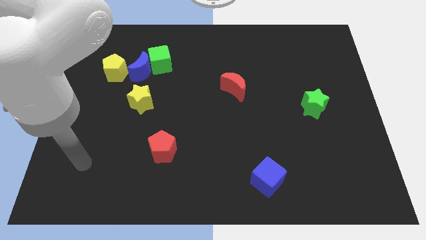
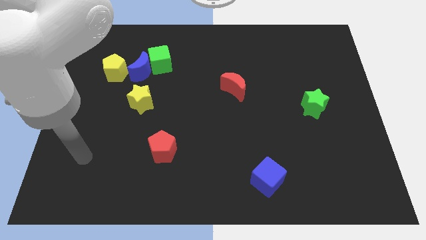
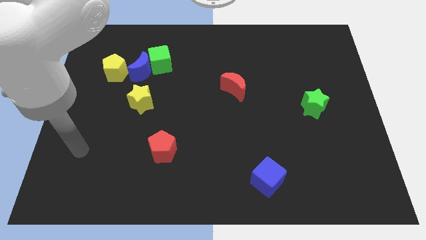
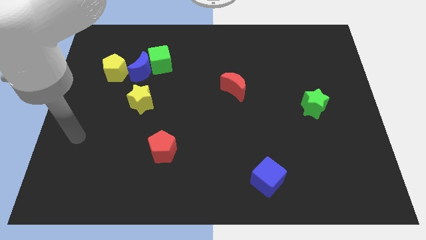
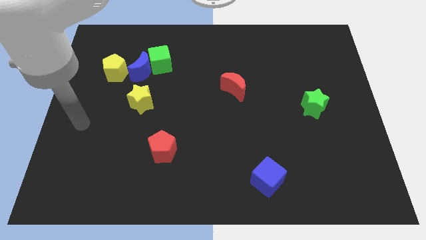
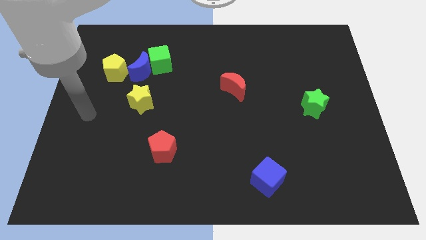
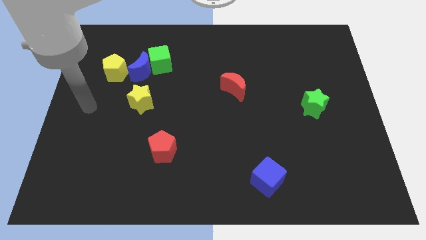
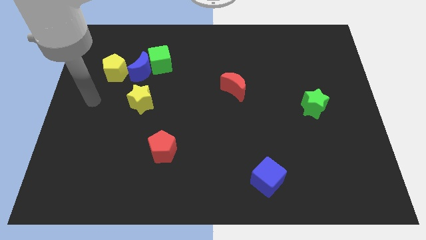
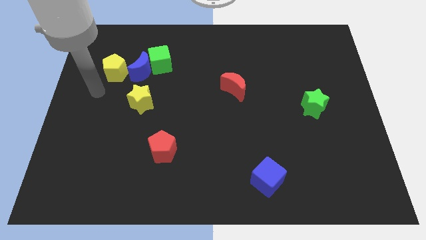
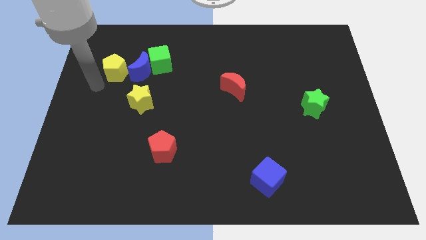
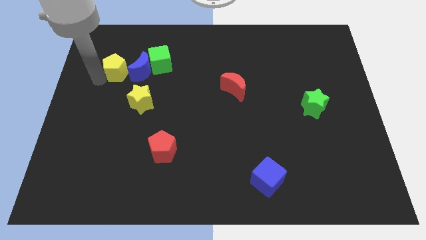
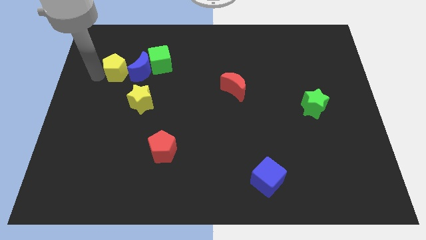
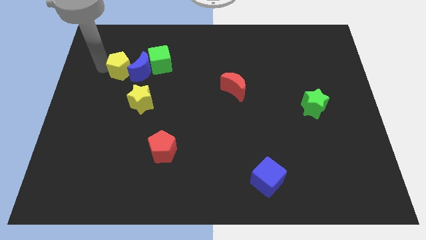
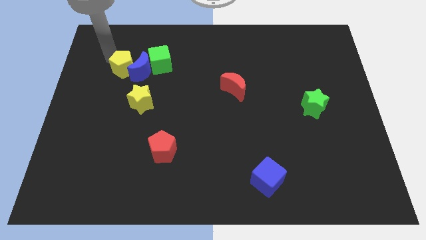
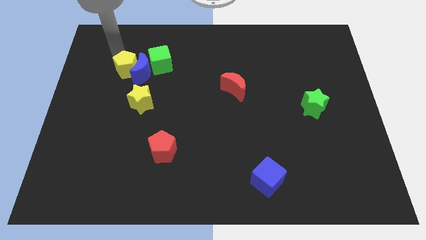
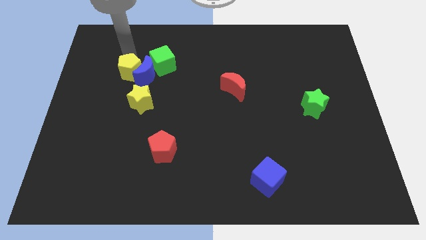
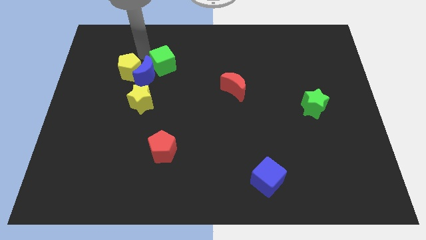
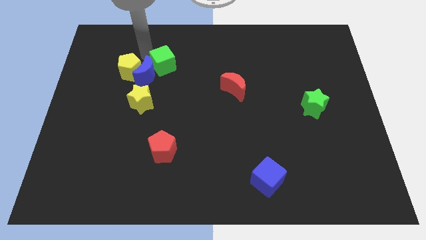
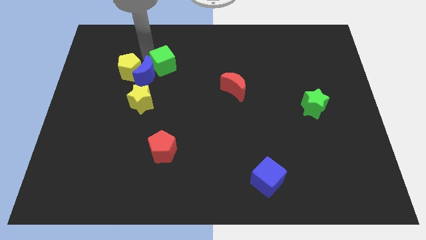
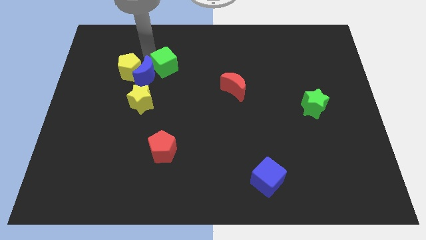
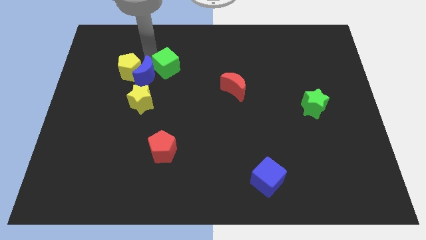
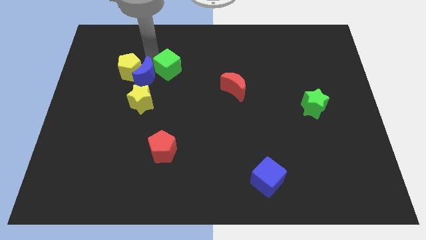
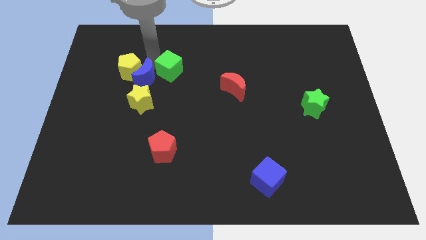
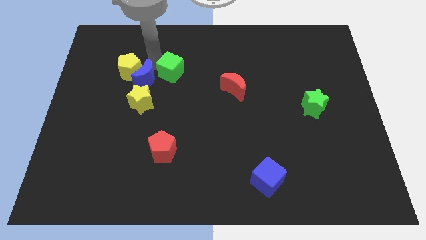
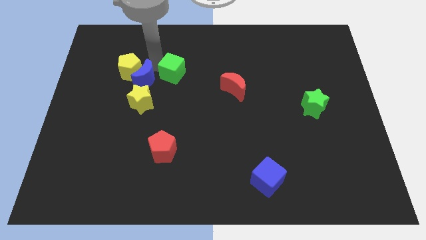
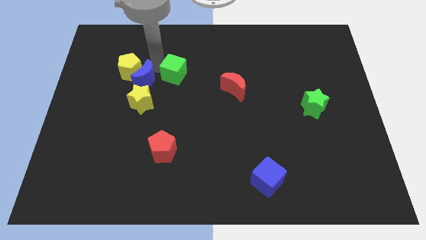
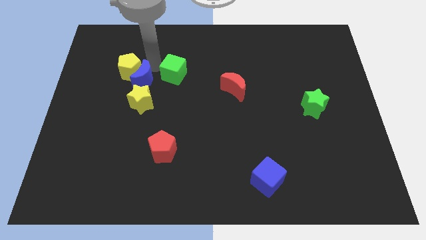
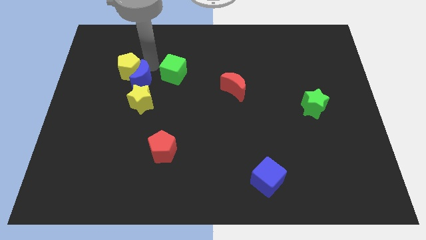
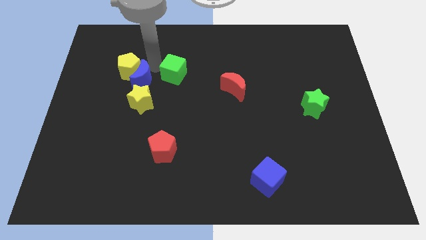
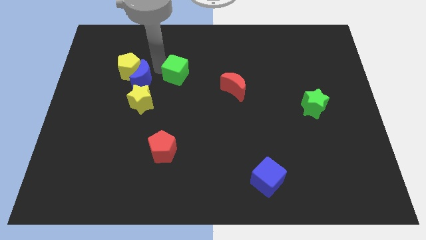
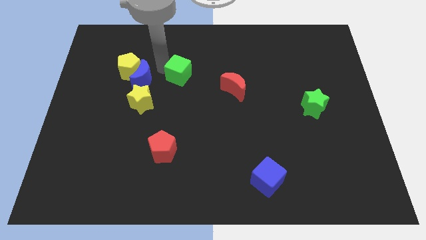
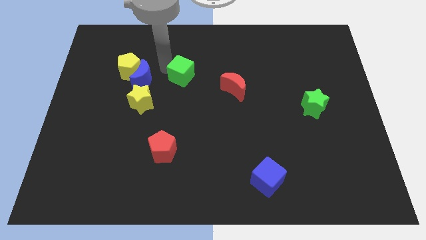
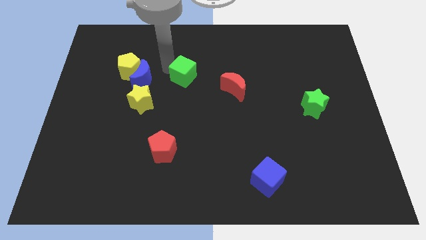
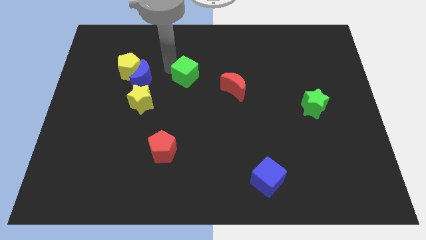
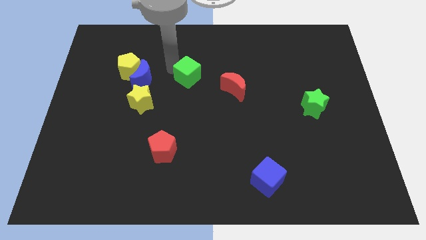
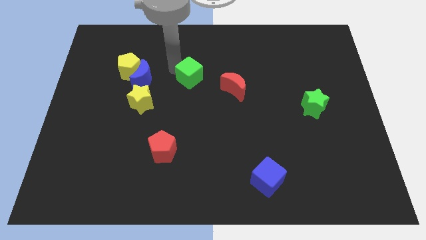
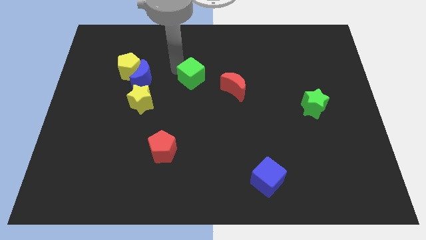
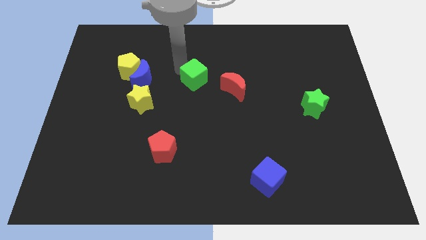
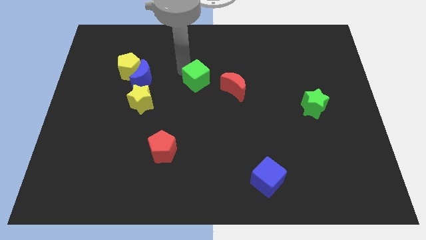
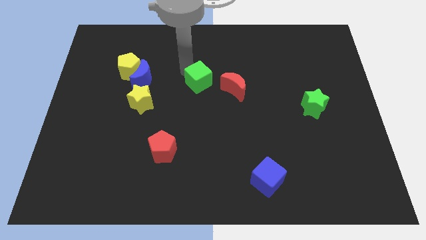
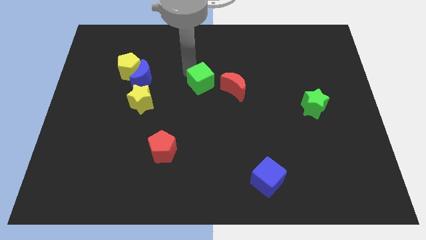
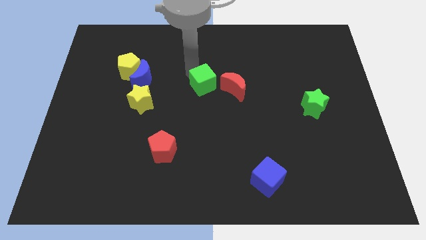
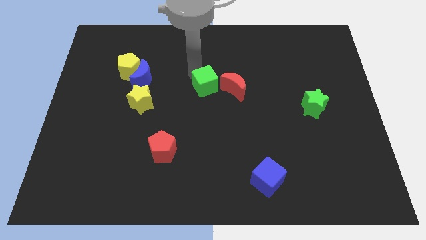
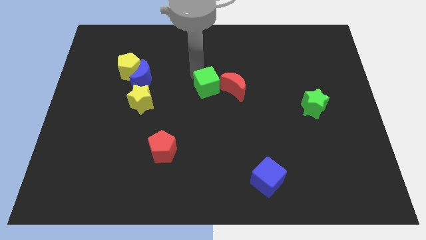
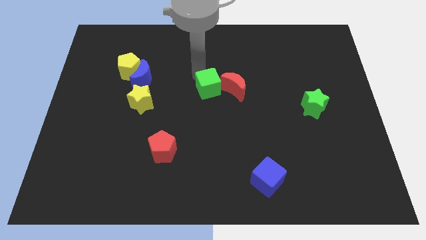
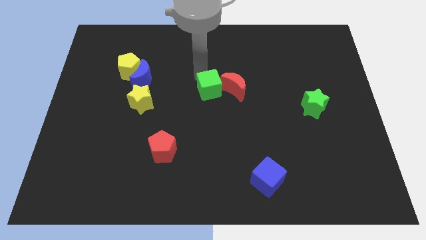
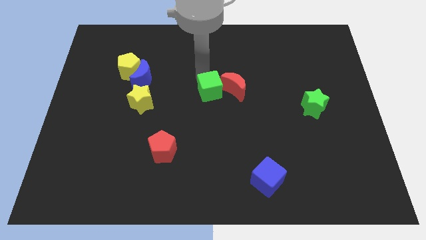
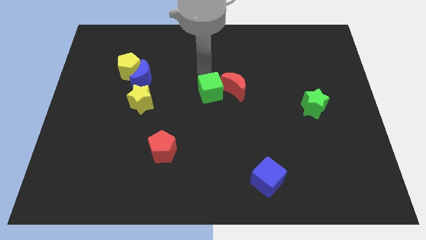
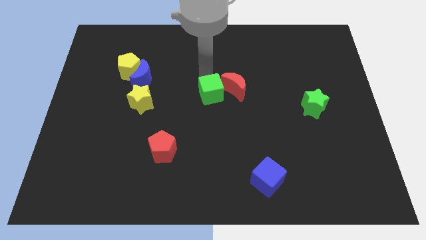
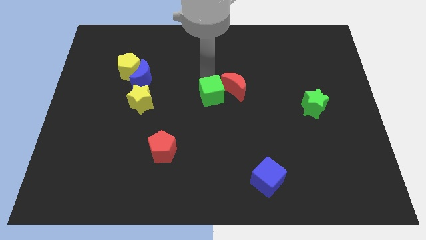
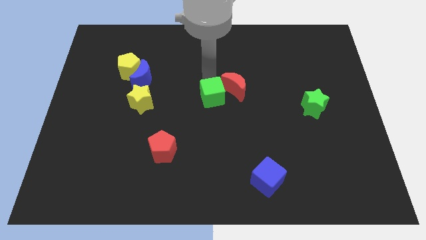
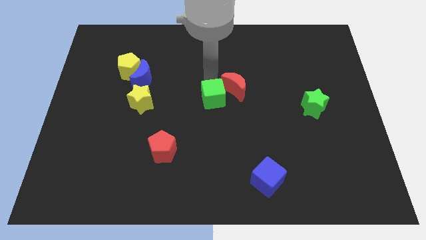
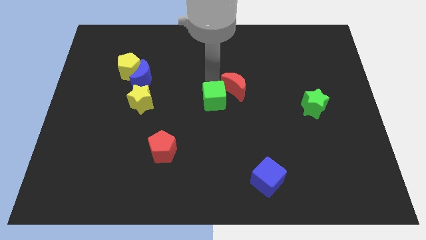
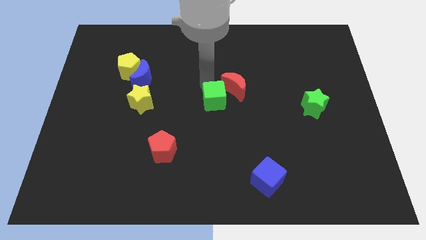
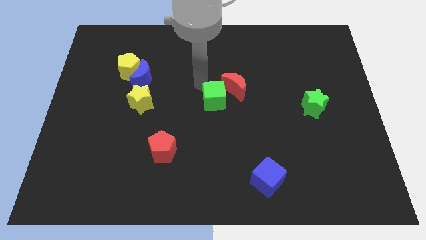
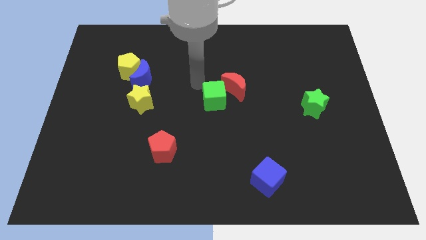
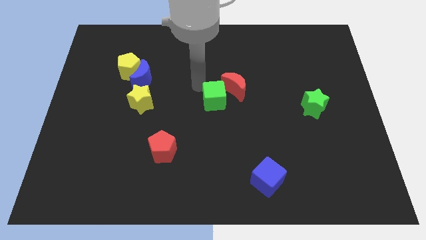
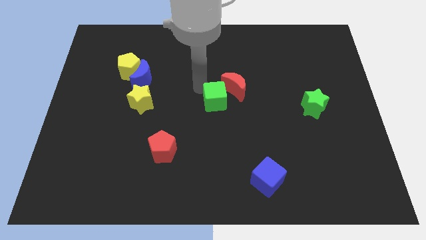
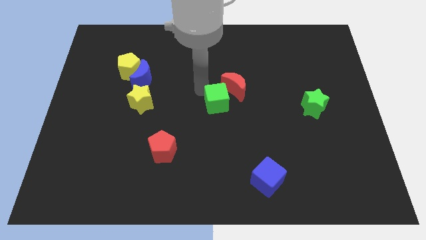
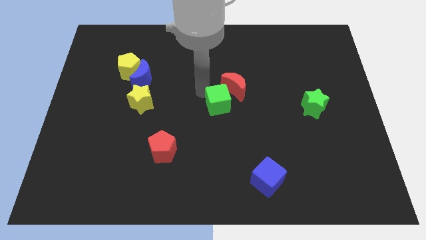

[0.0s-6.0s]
push the green cube downwards and then to the right

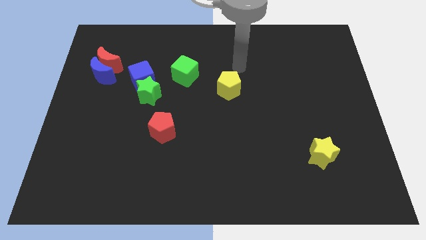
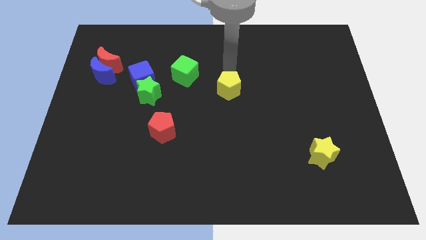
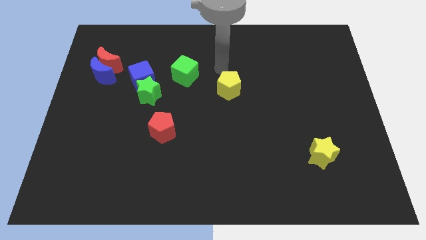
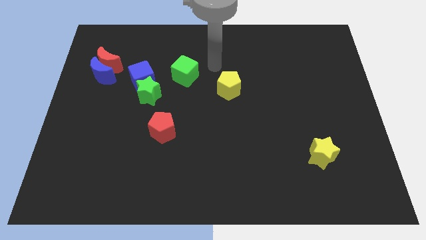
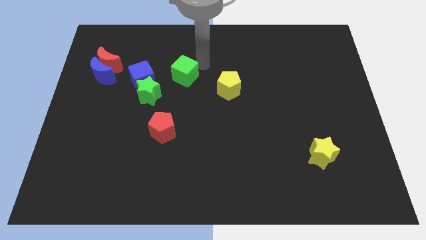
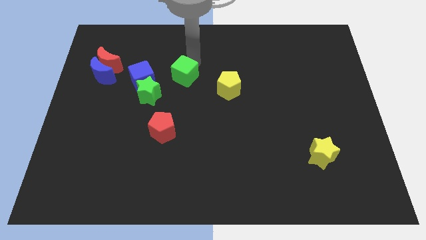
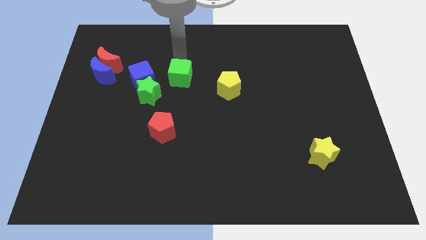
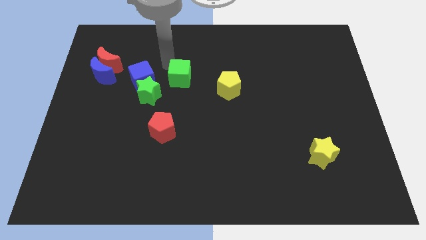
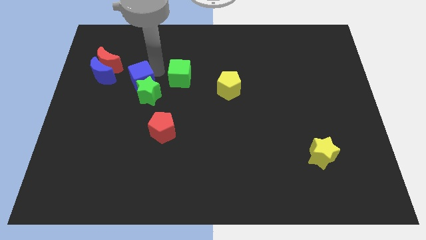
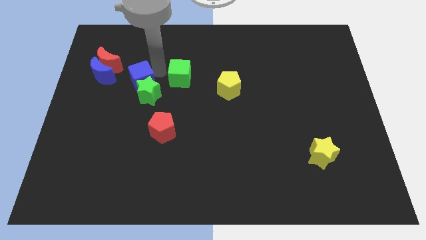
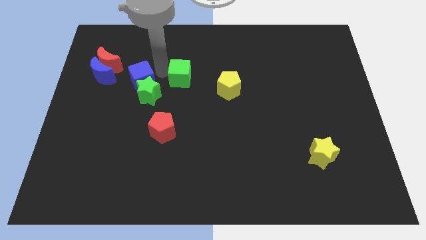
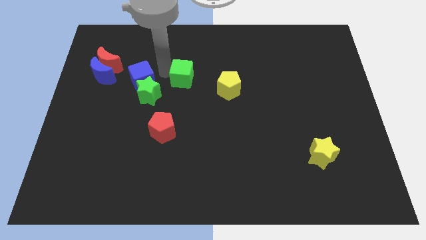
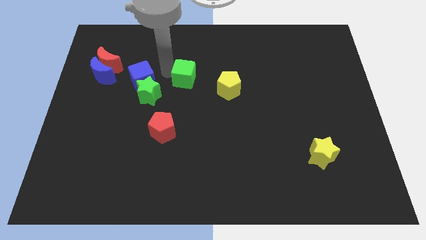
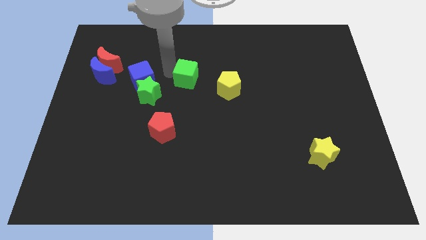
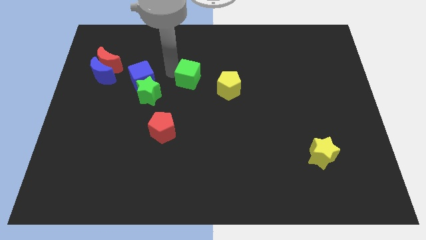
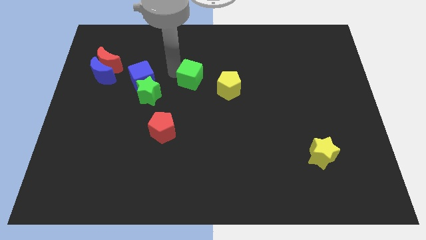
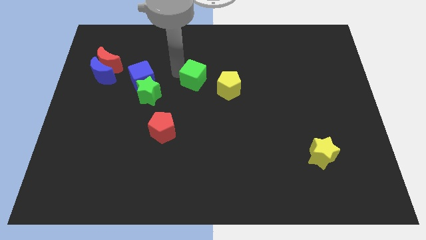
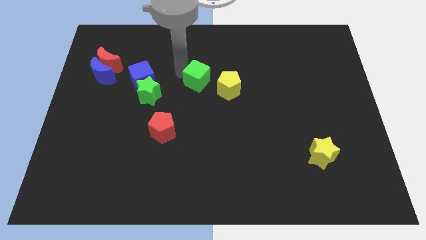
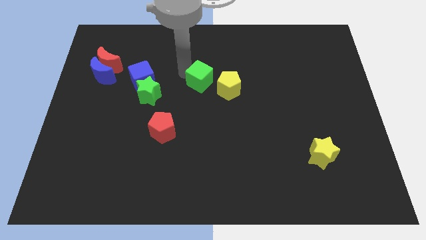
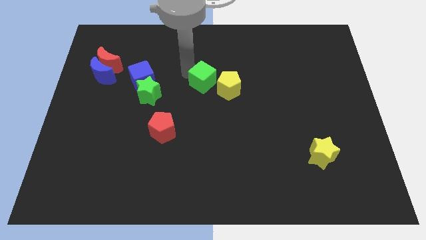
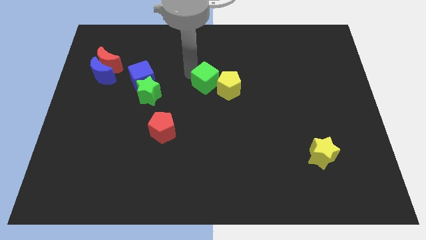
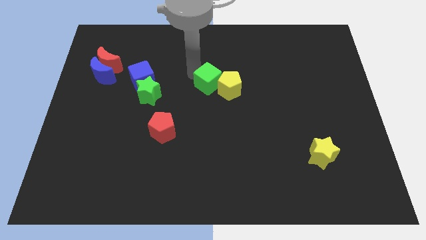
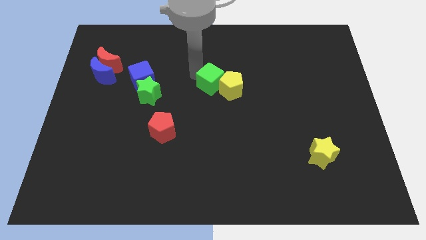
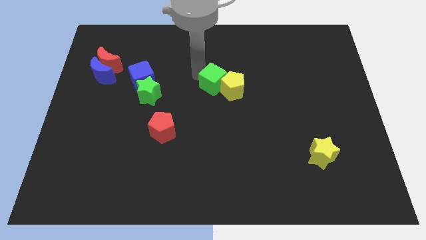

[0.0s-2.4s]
push the green cube downwards and right diagonally a little
